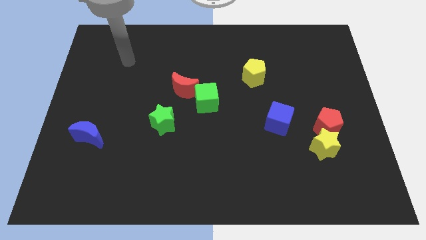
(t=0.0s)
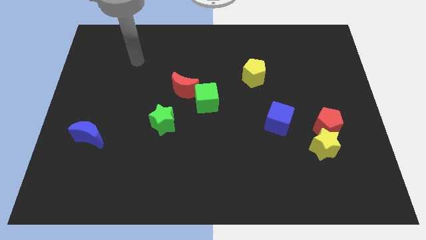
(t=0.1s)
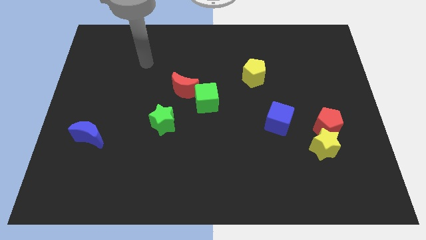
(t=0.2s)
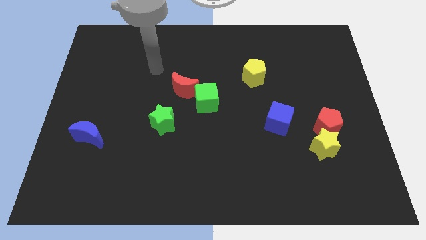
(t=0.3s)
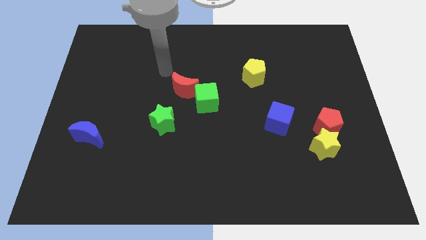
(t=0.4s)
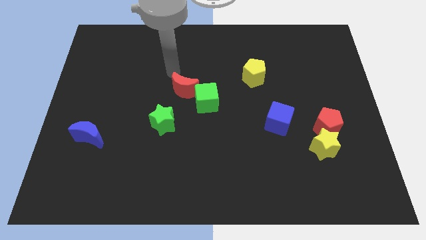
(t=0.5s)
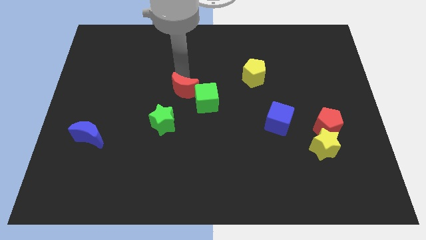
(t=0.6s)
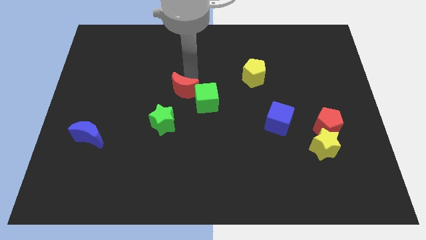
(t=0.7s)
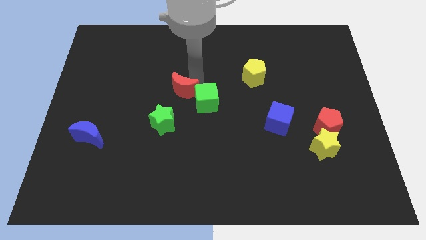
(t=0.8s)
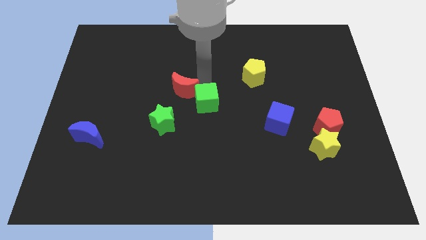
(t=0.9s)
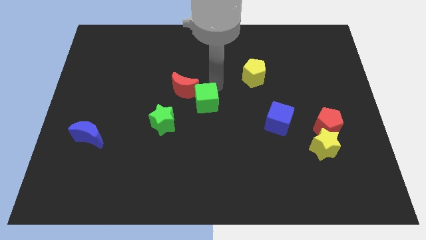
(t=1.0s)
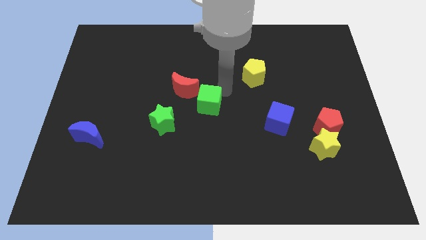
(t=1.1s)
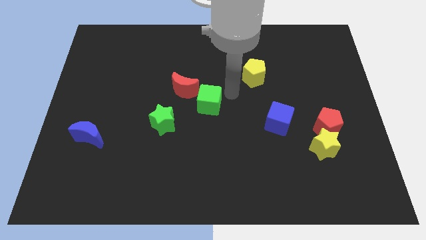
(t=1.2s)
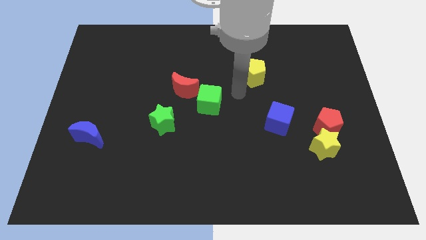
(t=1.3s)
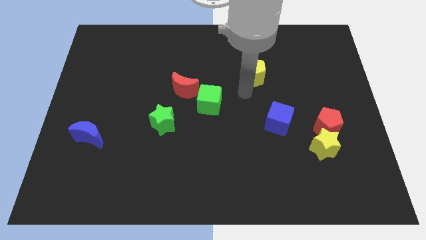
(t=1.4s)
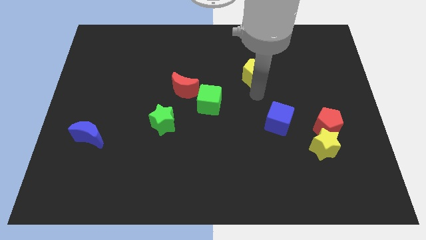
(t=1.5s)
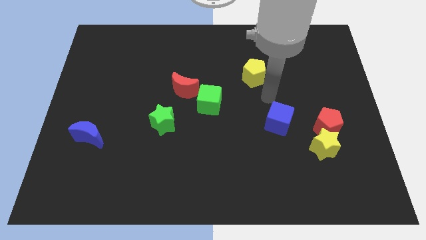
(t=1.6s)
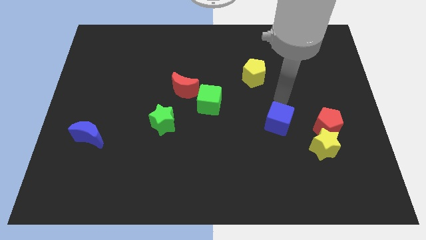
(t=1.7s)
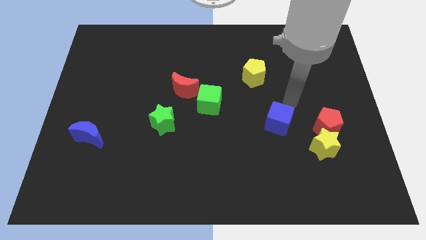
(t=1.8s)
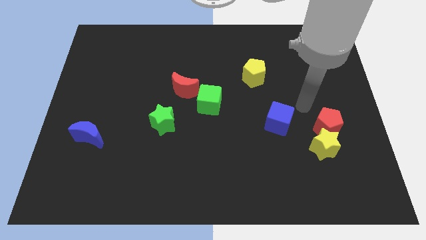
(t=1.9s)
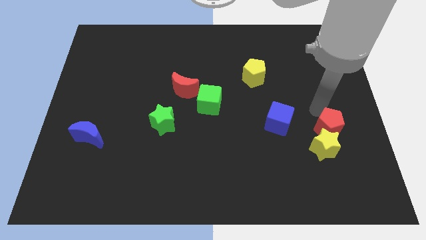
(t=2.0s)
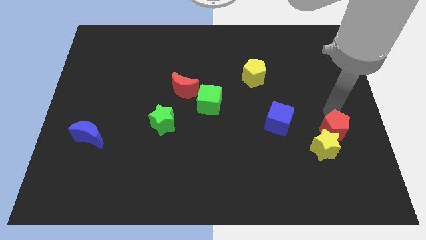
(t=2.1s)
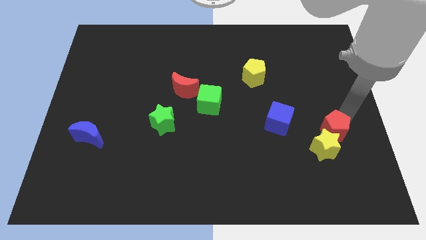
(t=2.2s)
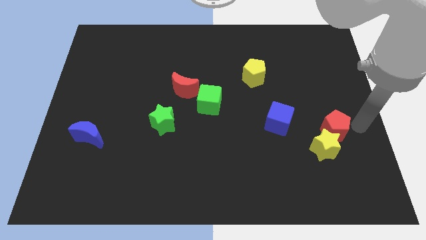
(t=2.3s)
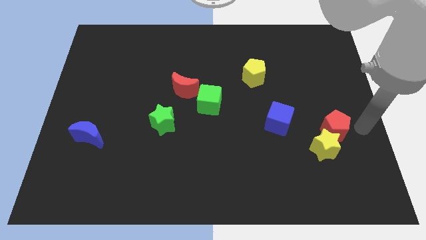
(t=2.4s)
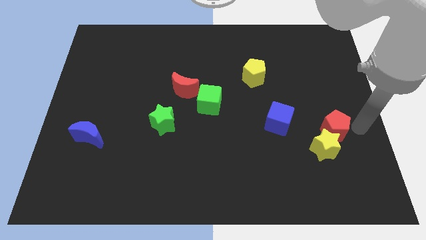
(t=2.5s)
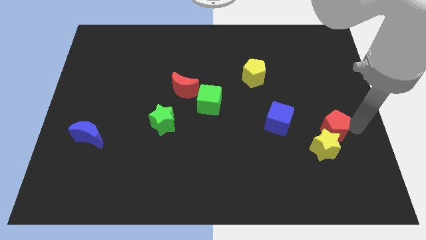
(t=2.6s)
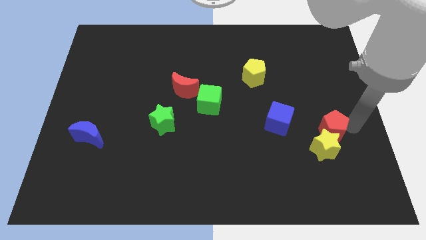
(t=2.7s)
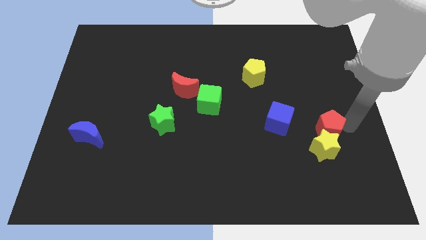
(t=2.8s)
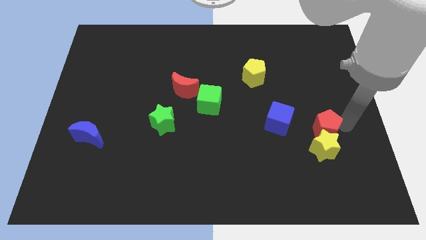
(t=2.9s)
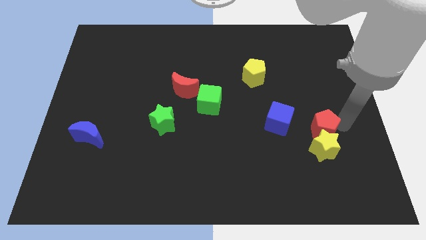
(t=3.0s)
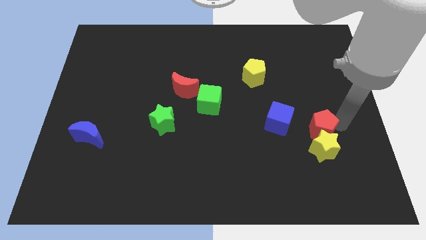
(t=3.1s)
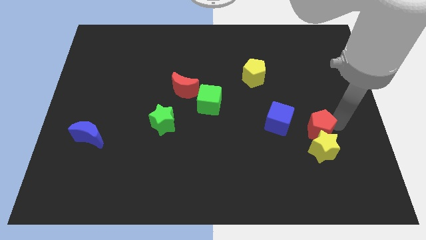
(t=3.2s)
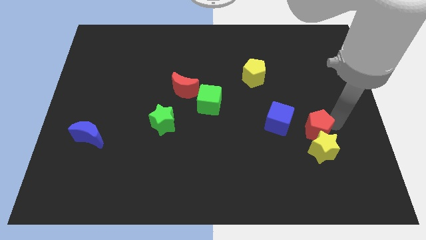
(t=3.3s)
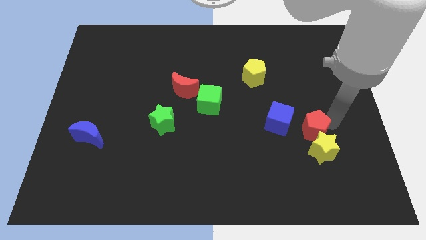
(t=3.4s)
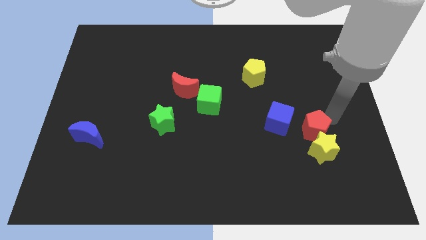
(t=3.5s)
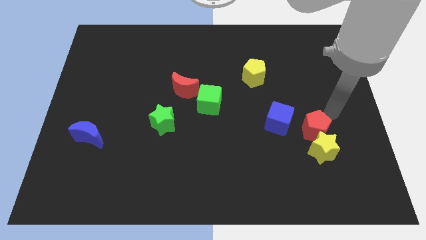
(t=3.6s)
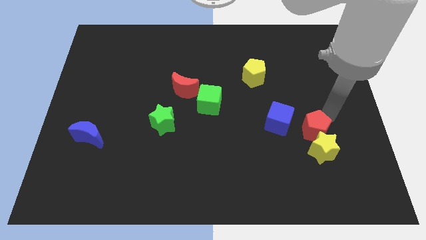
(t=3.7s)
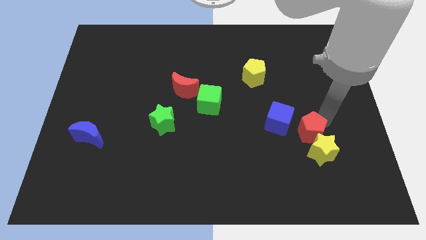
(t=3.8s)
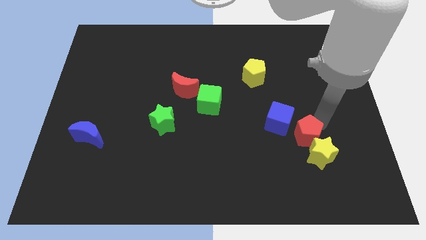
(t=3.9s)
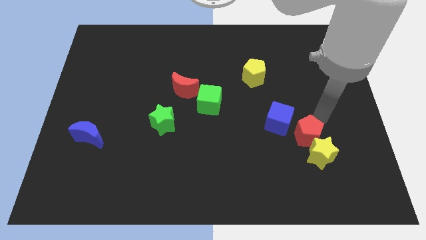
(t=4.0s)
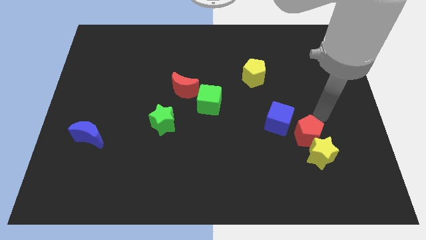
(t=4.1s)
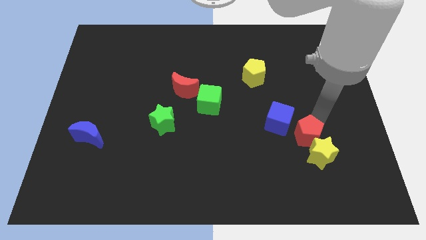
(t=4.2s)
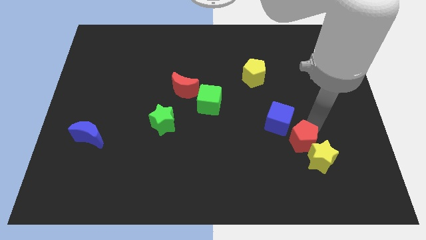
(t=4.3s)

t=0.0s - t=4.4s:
slide the red pentagon downwards and to the left diagonally somewhat

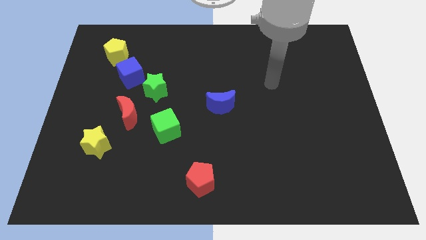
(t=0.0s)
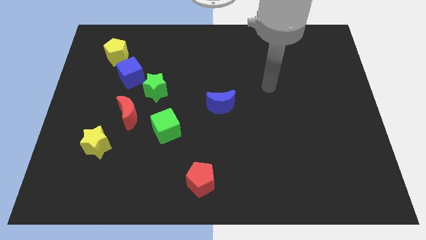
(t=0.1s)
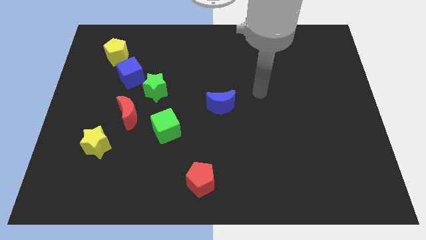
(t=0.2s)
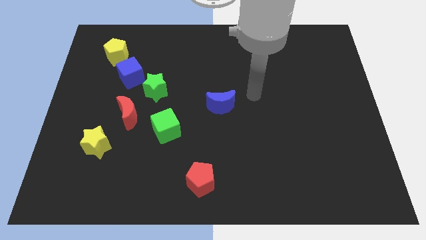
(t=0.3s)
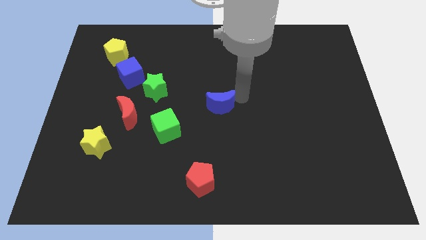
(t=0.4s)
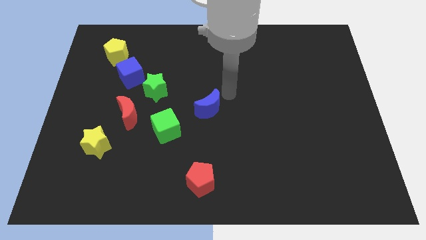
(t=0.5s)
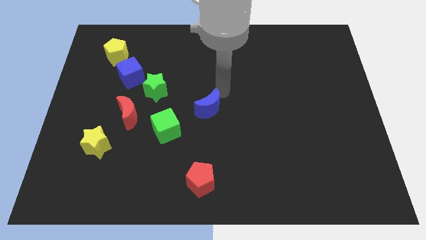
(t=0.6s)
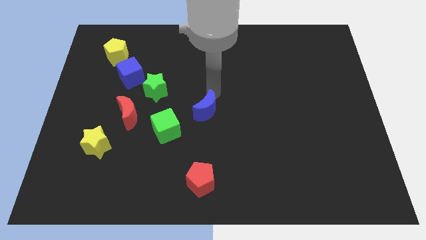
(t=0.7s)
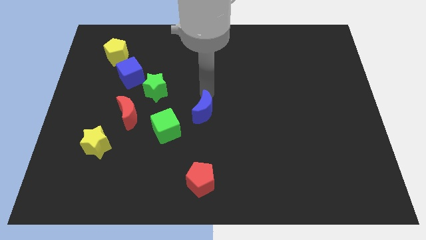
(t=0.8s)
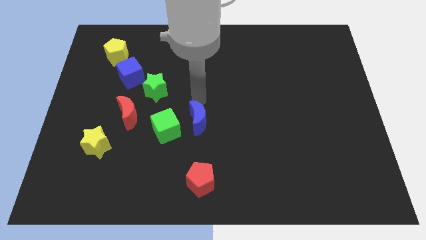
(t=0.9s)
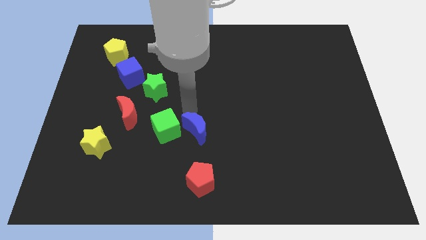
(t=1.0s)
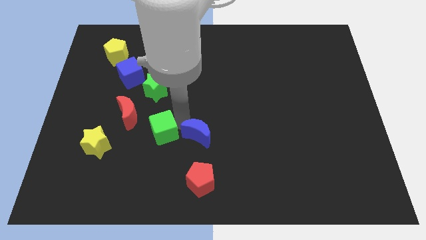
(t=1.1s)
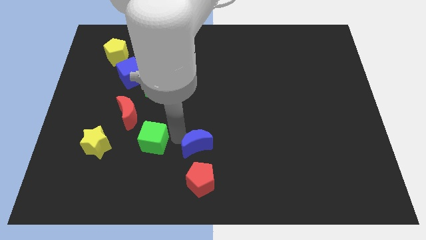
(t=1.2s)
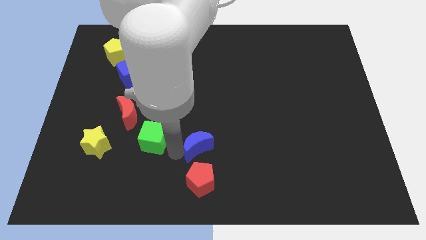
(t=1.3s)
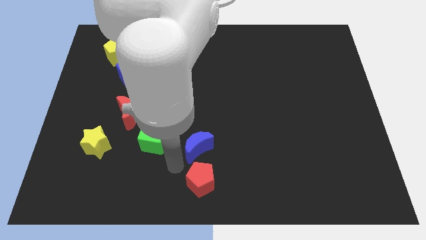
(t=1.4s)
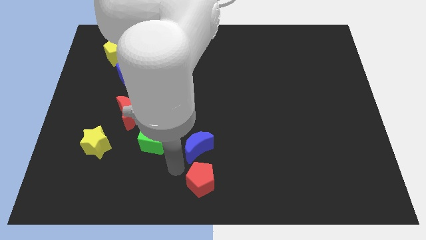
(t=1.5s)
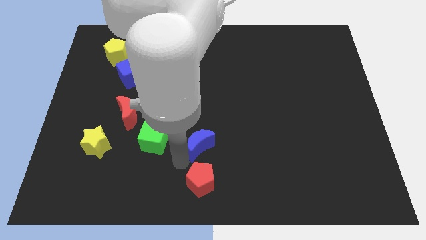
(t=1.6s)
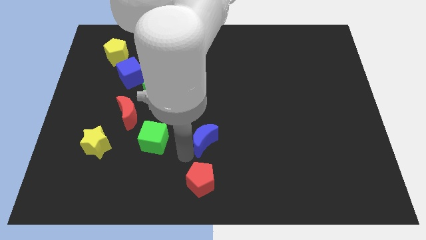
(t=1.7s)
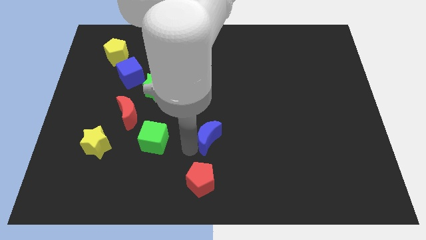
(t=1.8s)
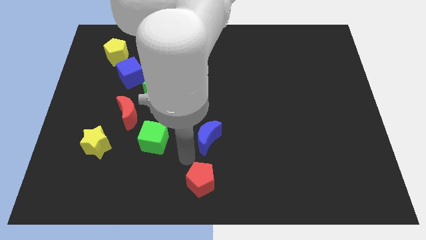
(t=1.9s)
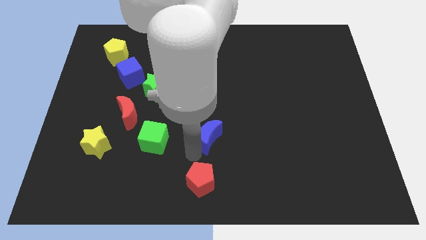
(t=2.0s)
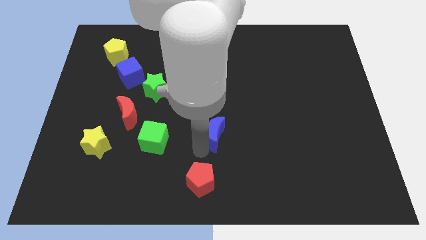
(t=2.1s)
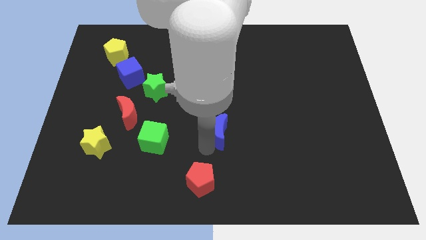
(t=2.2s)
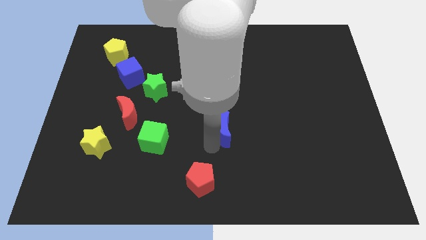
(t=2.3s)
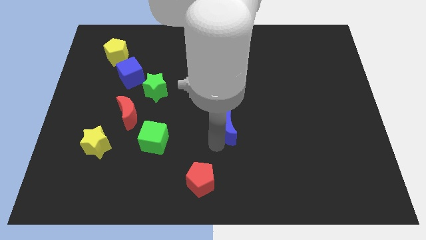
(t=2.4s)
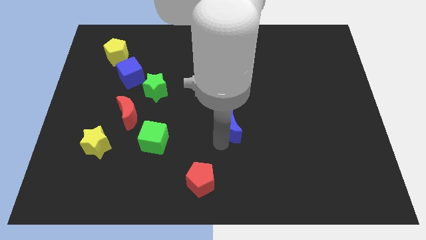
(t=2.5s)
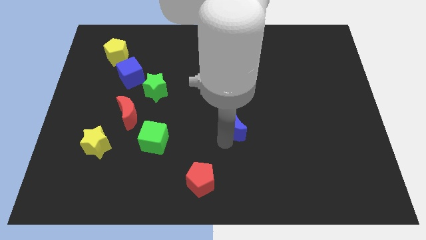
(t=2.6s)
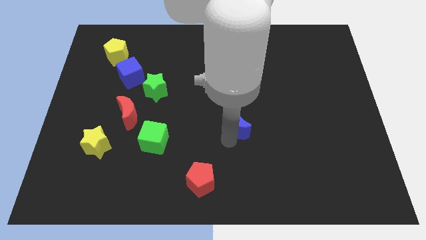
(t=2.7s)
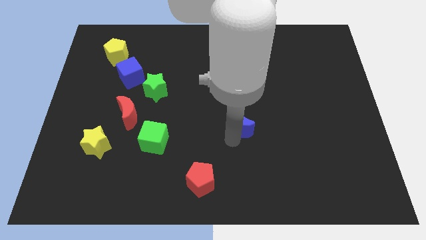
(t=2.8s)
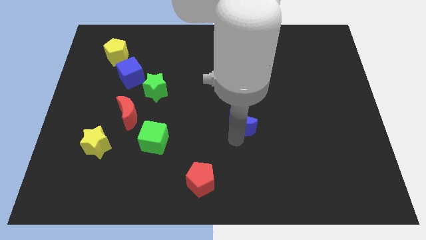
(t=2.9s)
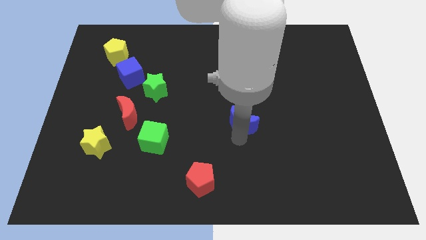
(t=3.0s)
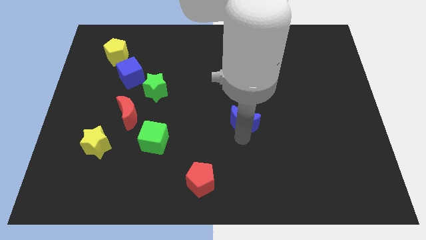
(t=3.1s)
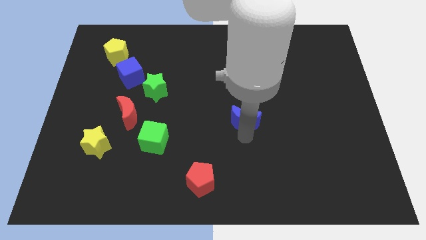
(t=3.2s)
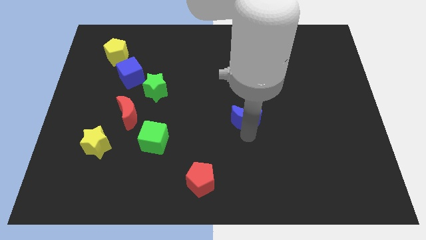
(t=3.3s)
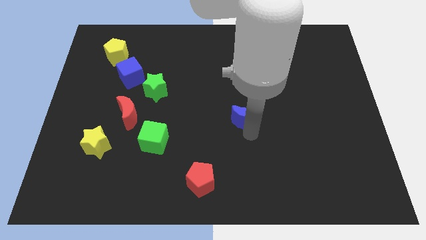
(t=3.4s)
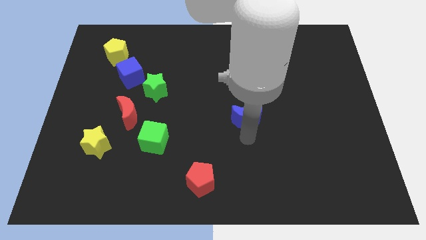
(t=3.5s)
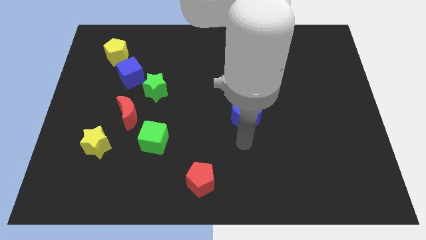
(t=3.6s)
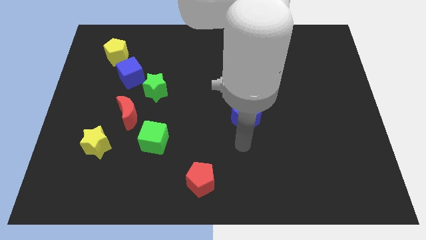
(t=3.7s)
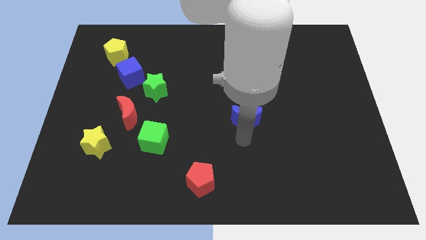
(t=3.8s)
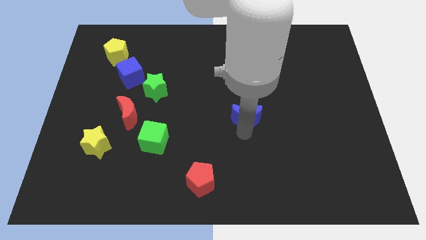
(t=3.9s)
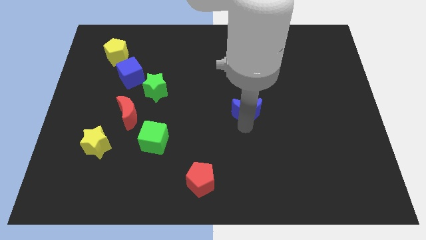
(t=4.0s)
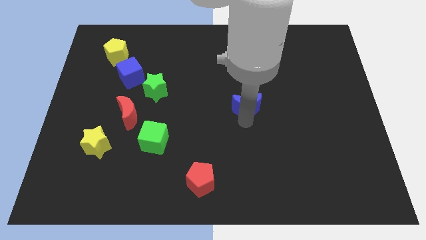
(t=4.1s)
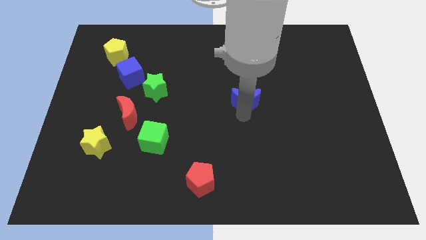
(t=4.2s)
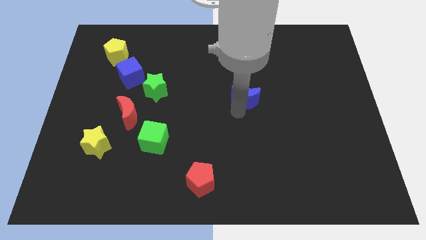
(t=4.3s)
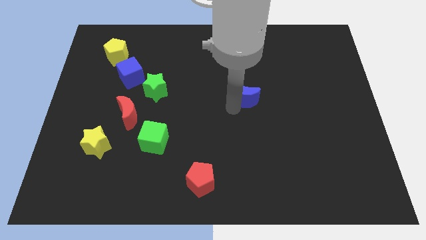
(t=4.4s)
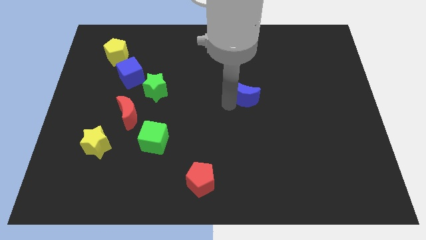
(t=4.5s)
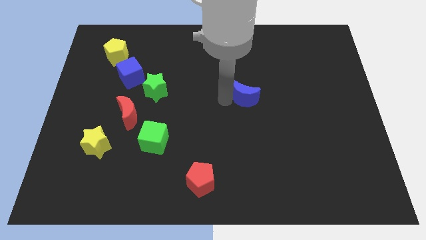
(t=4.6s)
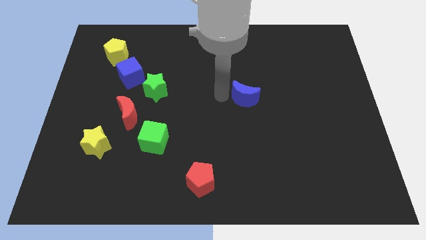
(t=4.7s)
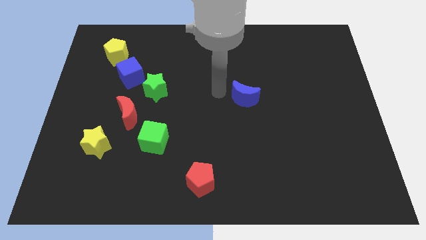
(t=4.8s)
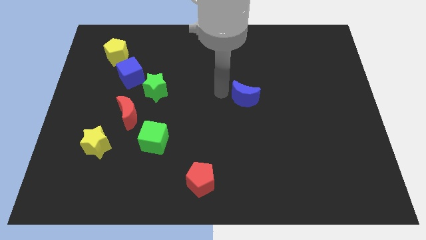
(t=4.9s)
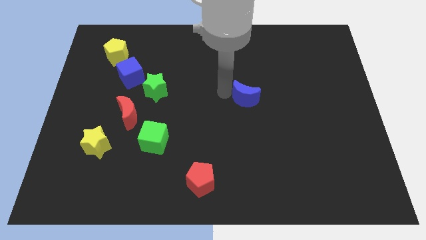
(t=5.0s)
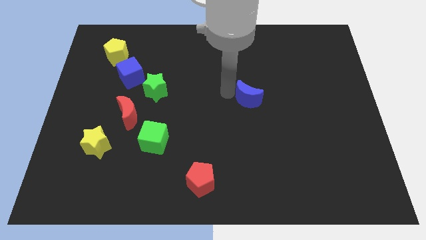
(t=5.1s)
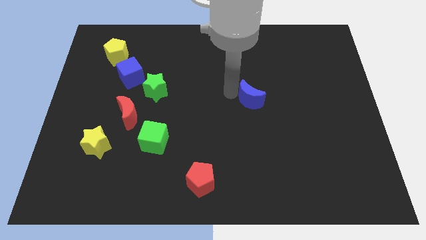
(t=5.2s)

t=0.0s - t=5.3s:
slide the blue moon right slightly
